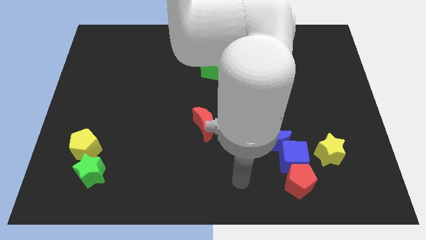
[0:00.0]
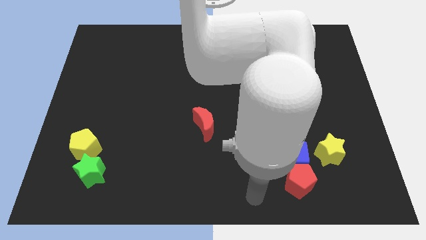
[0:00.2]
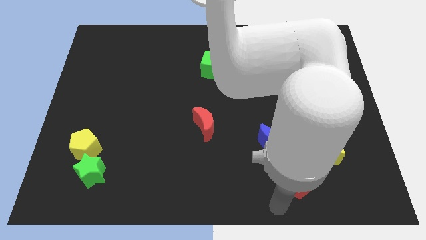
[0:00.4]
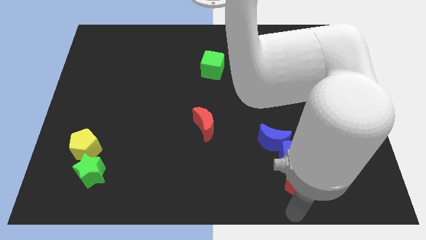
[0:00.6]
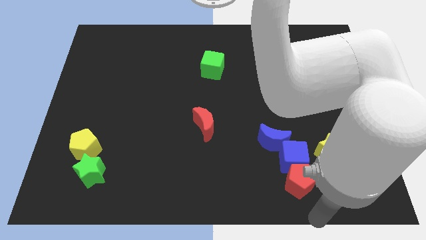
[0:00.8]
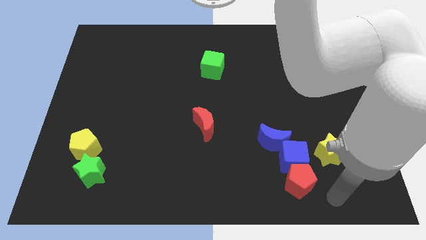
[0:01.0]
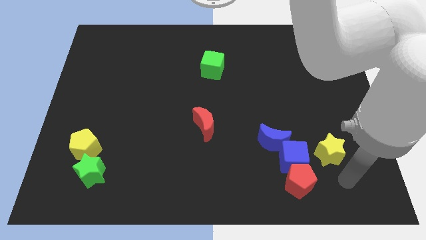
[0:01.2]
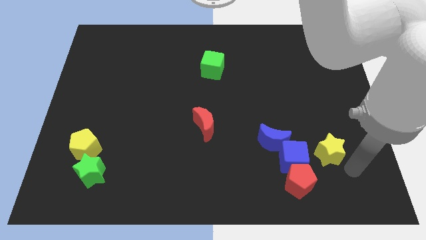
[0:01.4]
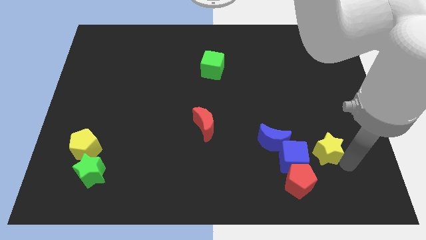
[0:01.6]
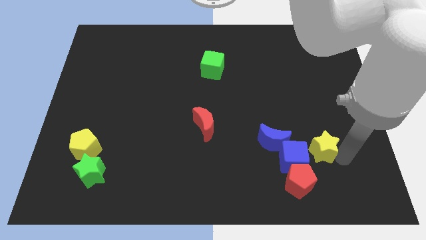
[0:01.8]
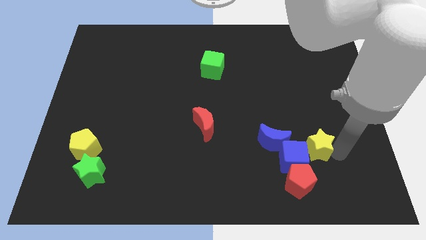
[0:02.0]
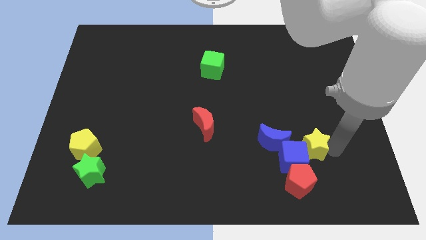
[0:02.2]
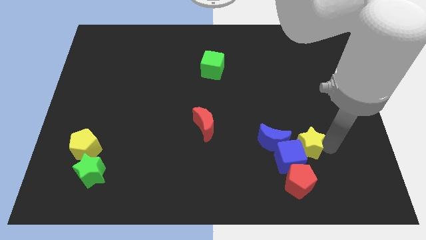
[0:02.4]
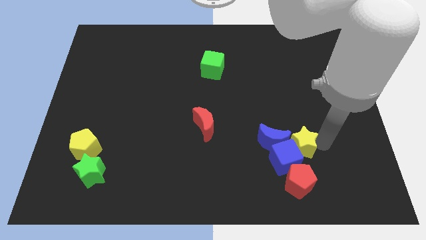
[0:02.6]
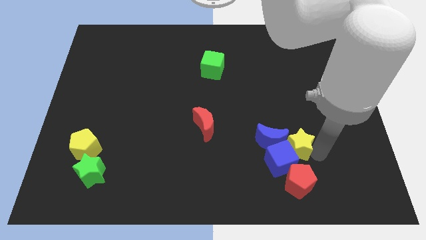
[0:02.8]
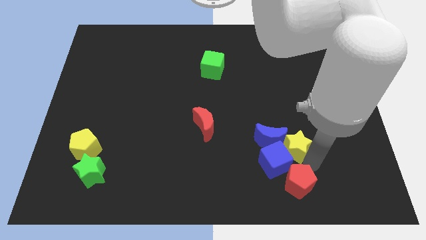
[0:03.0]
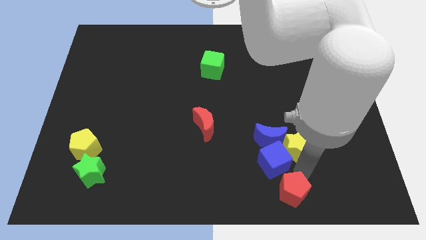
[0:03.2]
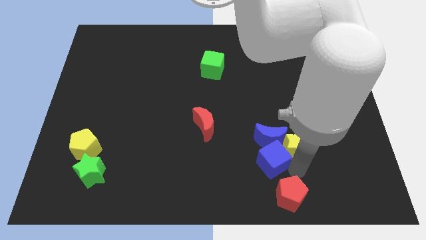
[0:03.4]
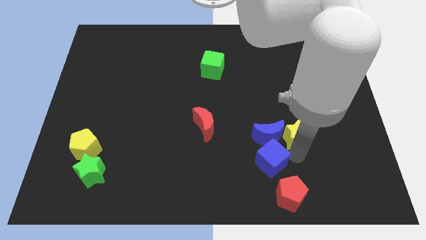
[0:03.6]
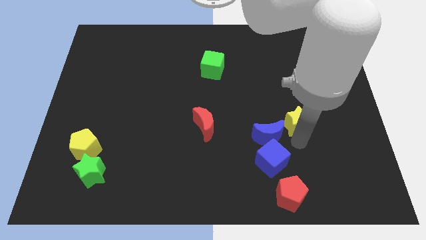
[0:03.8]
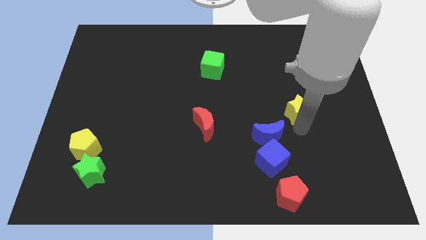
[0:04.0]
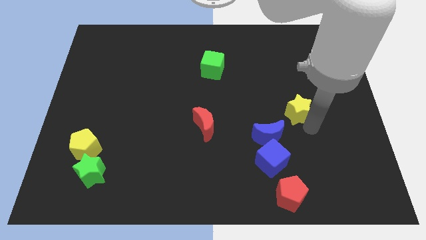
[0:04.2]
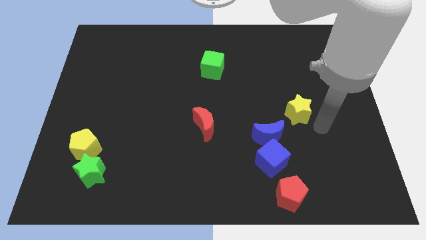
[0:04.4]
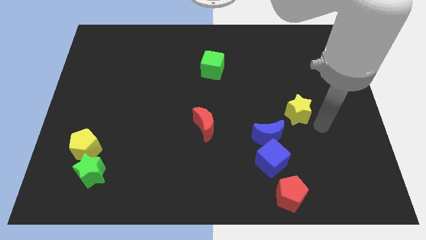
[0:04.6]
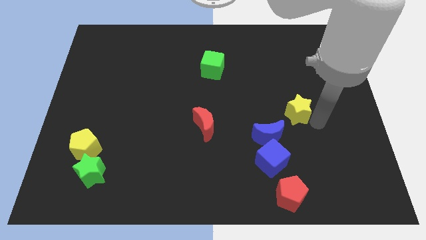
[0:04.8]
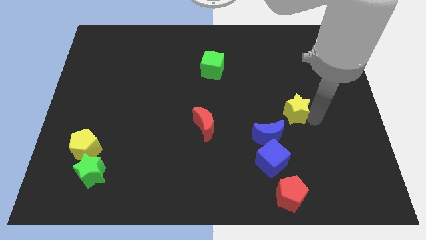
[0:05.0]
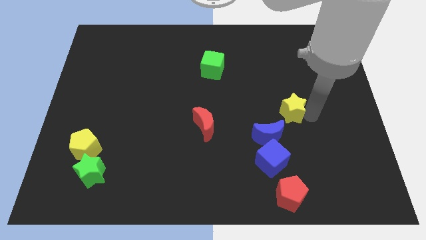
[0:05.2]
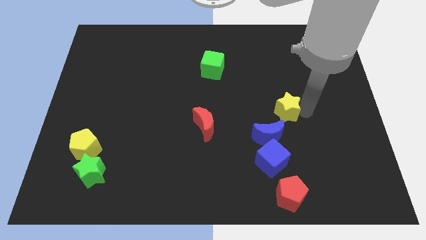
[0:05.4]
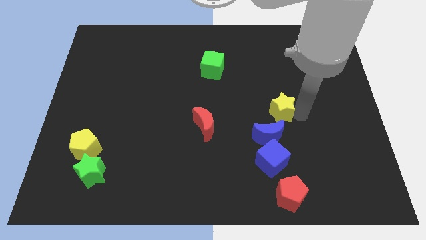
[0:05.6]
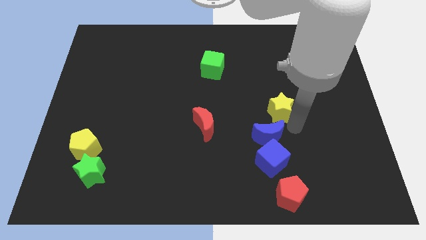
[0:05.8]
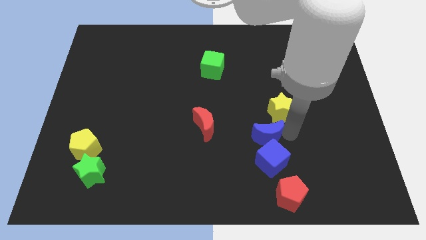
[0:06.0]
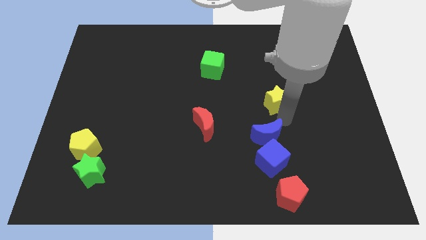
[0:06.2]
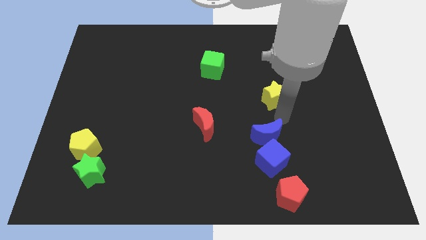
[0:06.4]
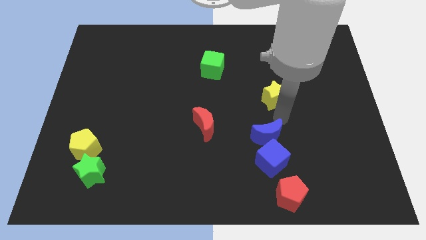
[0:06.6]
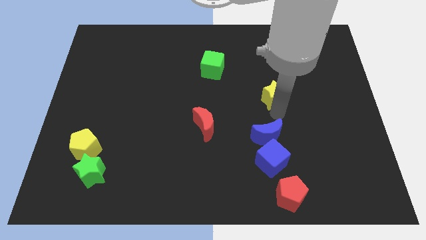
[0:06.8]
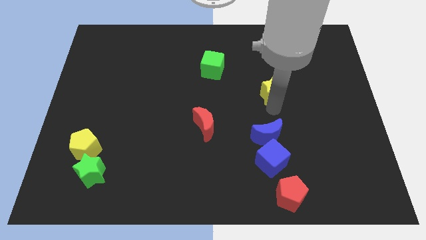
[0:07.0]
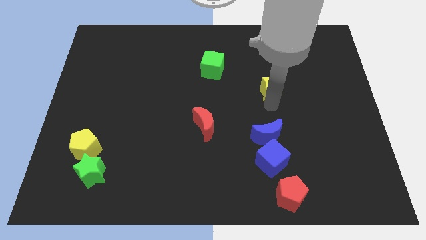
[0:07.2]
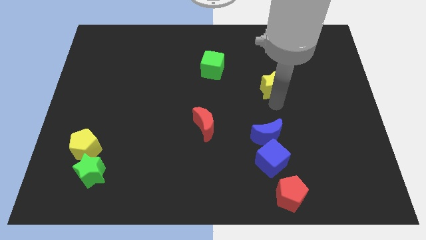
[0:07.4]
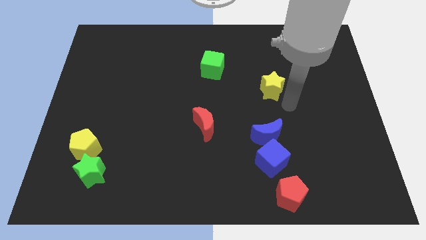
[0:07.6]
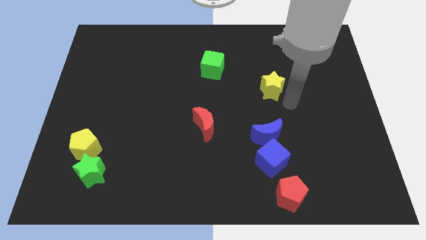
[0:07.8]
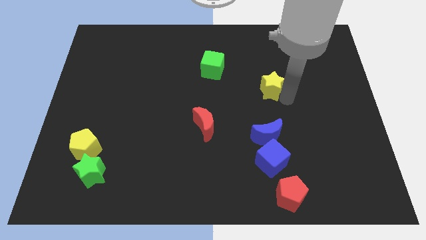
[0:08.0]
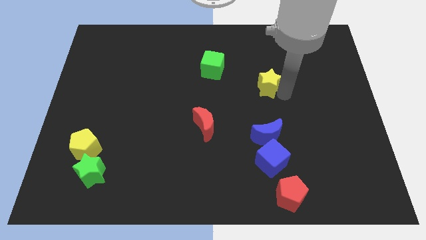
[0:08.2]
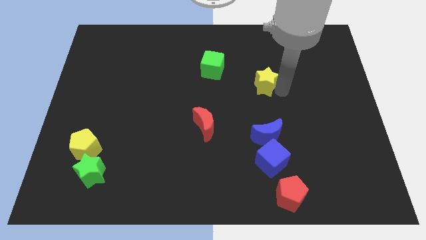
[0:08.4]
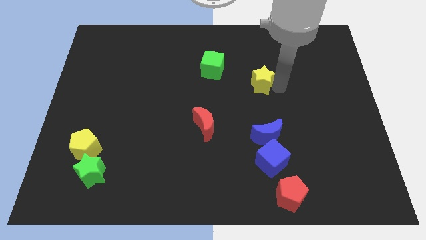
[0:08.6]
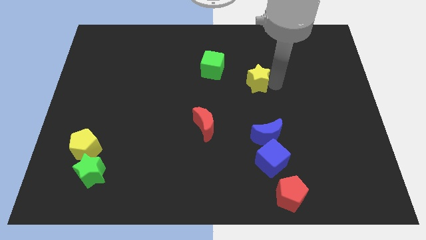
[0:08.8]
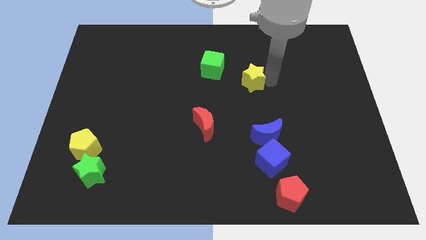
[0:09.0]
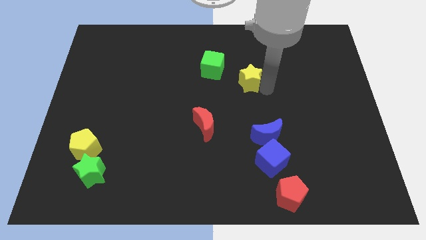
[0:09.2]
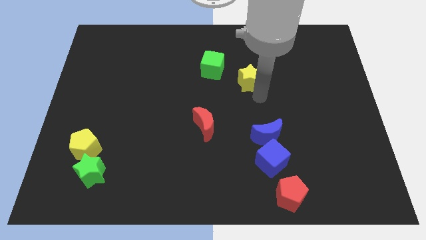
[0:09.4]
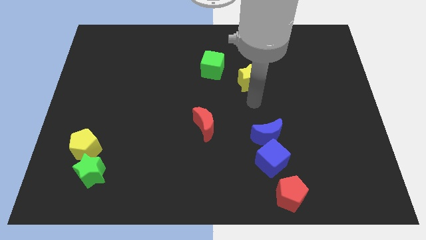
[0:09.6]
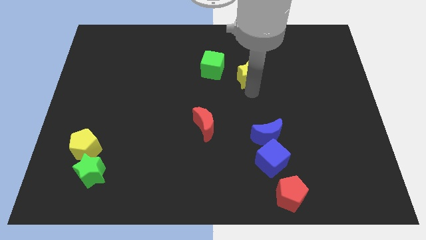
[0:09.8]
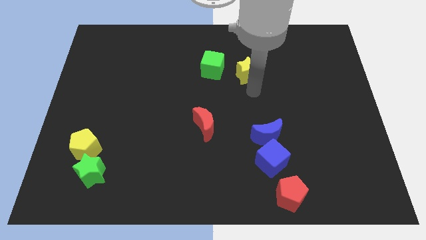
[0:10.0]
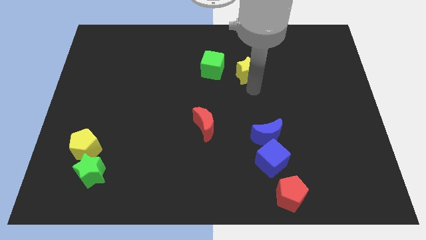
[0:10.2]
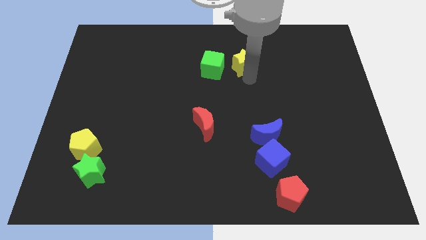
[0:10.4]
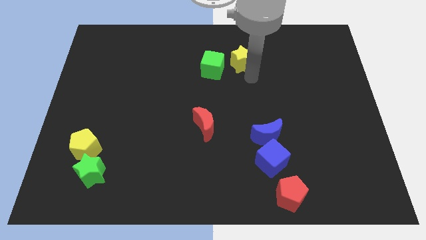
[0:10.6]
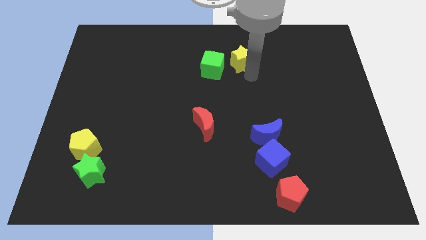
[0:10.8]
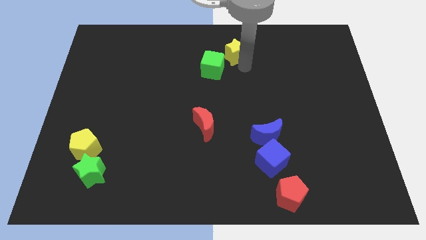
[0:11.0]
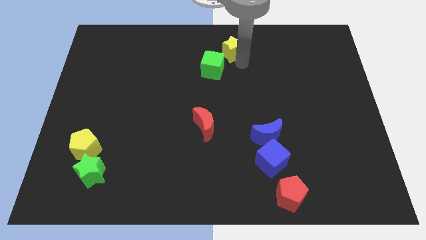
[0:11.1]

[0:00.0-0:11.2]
push the yellow star to the towards your base
